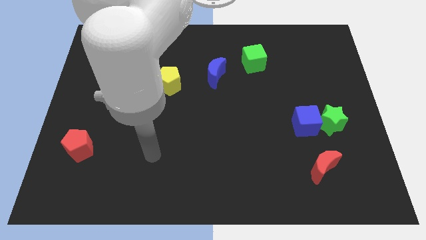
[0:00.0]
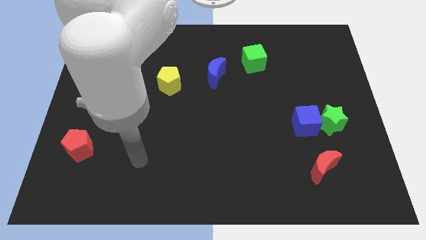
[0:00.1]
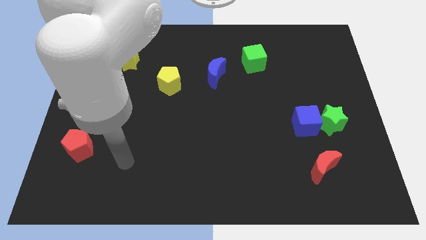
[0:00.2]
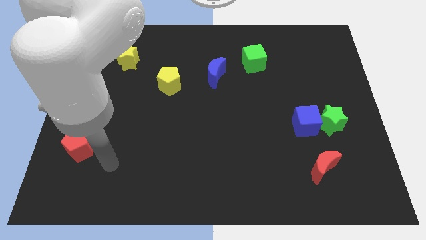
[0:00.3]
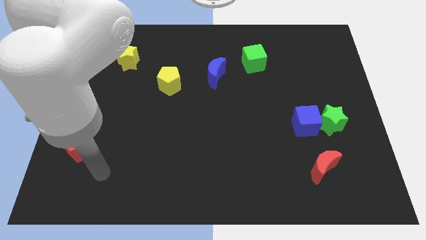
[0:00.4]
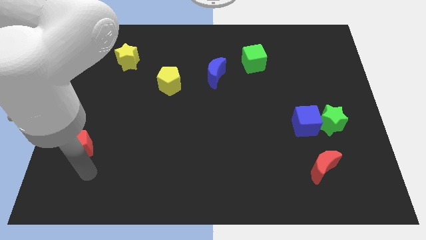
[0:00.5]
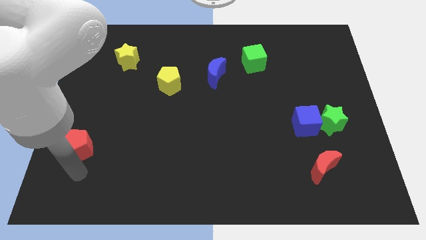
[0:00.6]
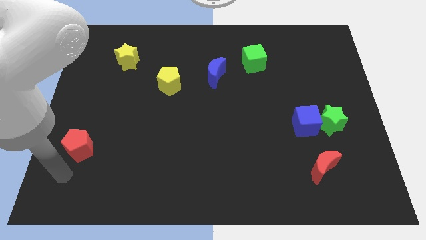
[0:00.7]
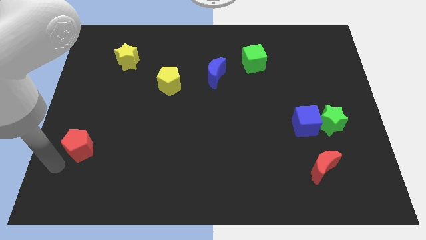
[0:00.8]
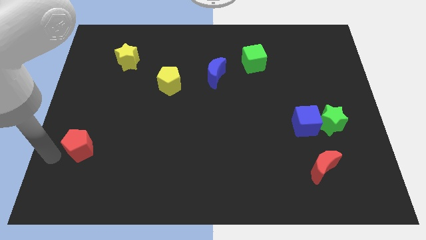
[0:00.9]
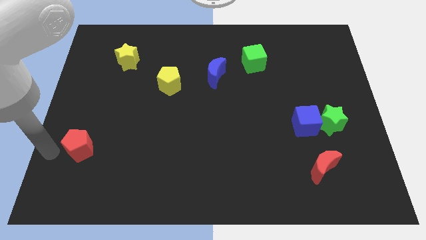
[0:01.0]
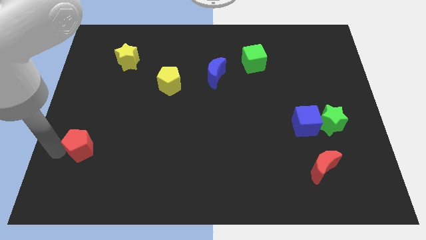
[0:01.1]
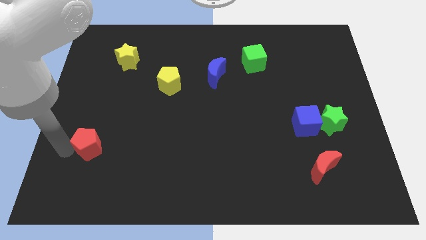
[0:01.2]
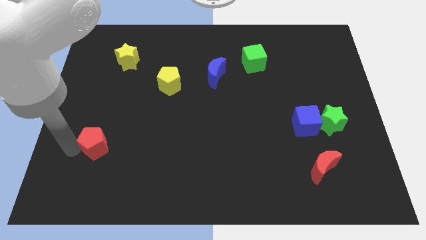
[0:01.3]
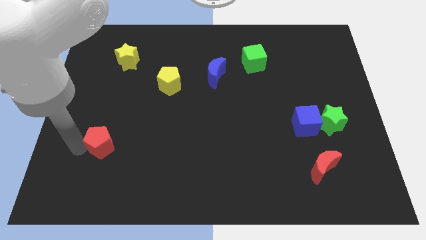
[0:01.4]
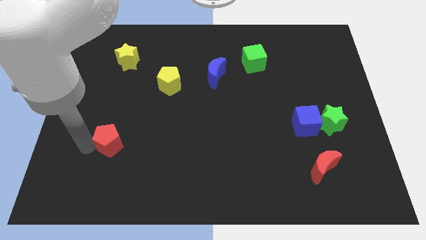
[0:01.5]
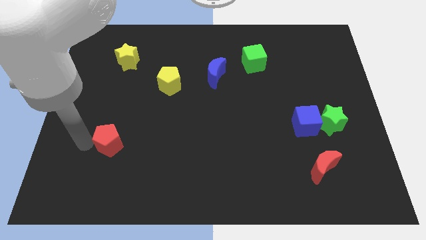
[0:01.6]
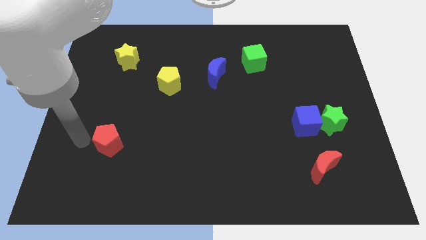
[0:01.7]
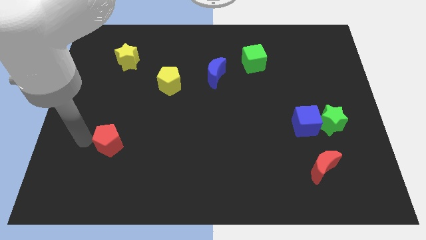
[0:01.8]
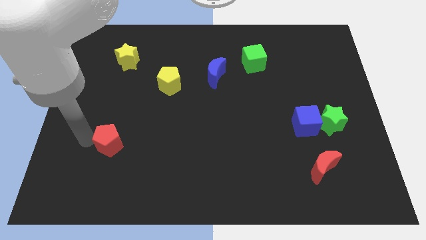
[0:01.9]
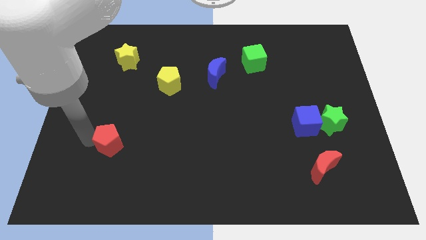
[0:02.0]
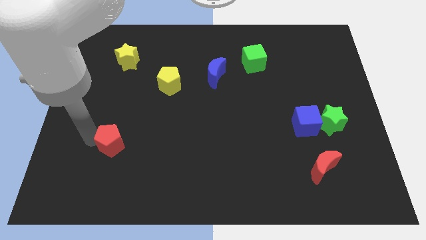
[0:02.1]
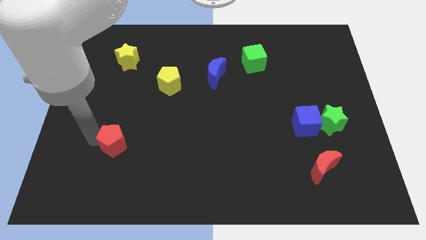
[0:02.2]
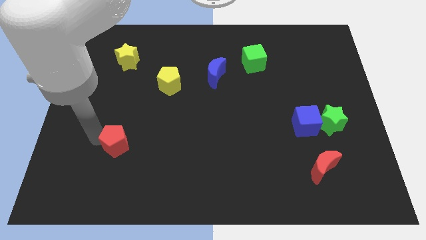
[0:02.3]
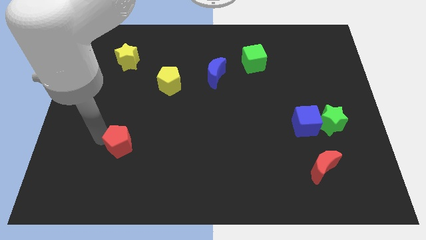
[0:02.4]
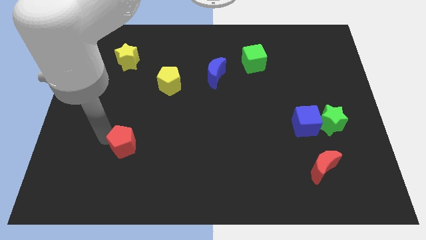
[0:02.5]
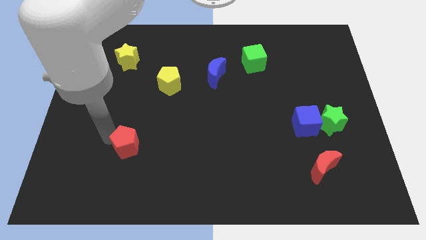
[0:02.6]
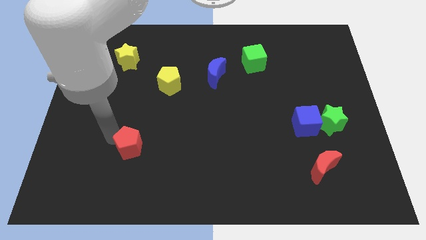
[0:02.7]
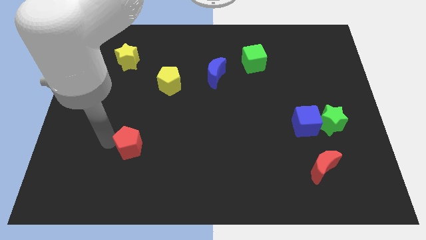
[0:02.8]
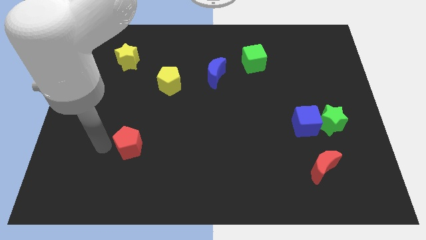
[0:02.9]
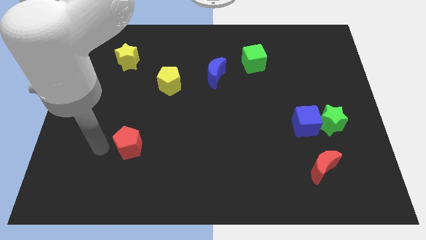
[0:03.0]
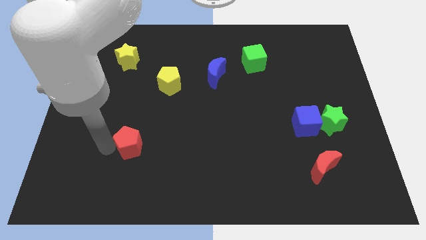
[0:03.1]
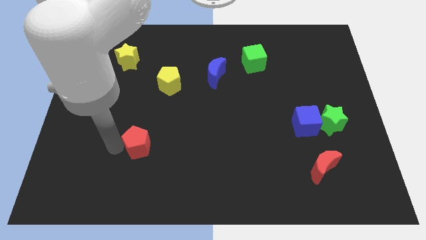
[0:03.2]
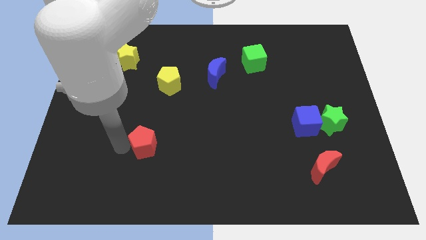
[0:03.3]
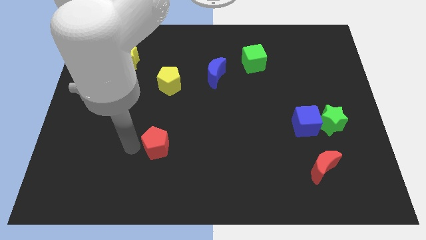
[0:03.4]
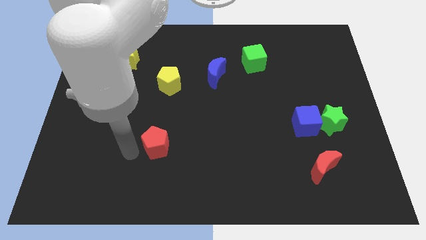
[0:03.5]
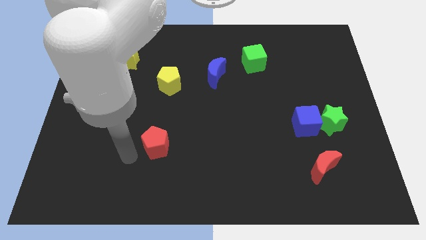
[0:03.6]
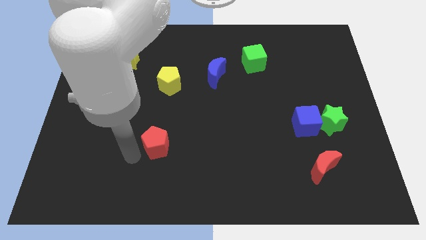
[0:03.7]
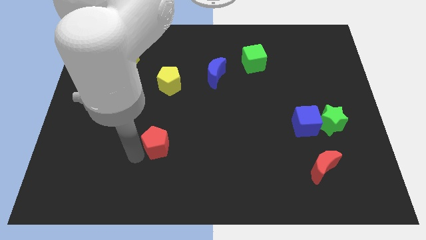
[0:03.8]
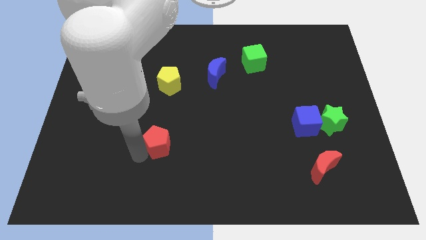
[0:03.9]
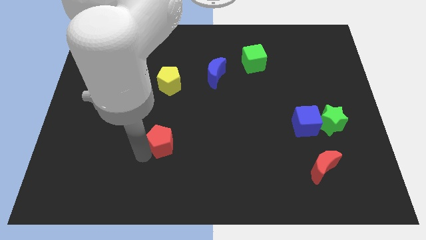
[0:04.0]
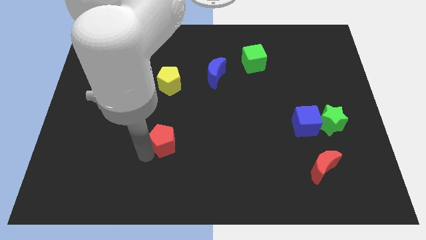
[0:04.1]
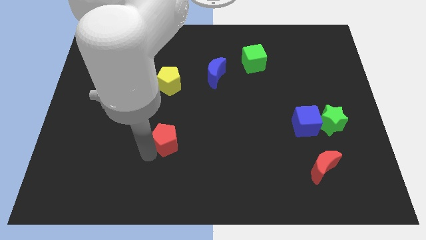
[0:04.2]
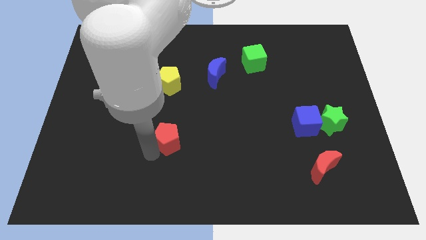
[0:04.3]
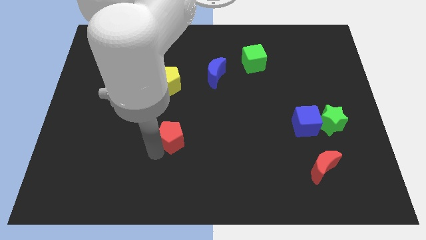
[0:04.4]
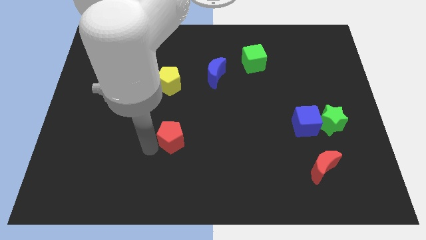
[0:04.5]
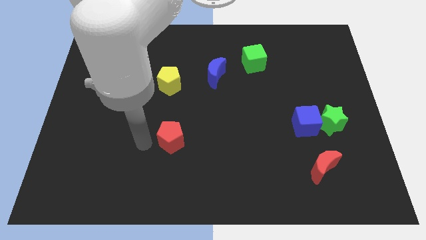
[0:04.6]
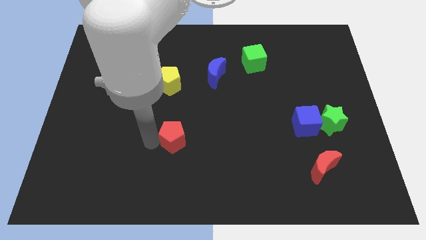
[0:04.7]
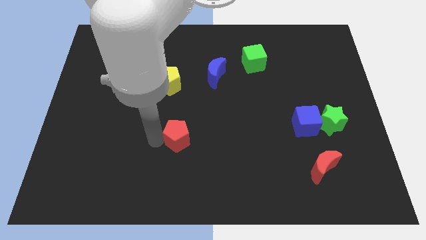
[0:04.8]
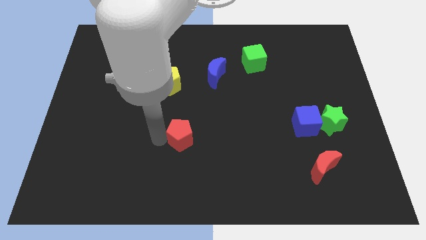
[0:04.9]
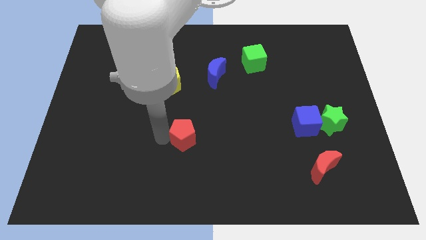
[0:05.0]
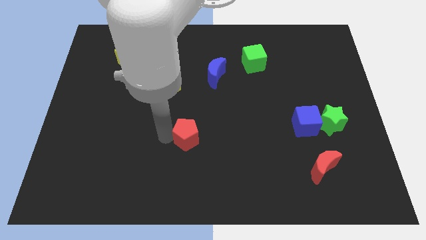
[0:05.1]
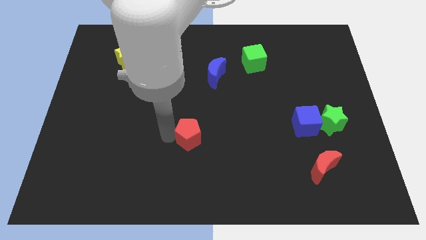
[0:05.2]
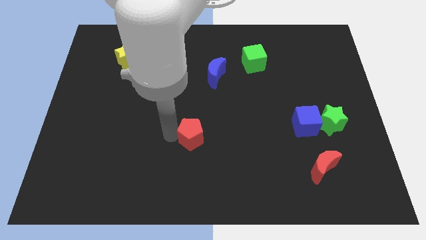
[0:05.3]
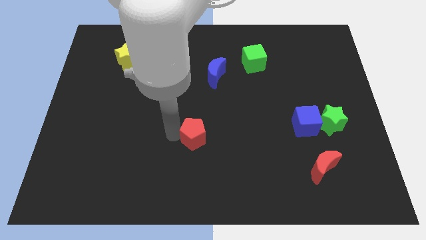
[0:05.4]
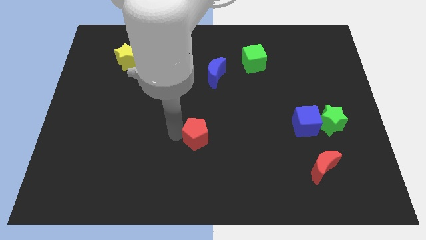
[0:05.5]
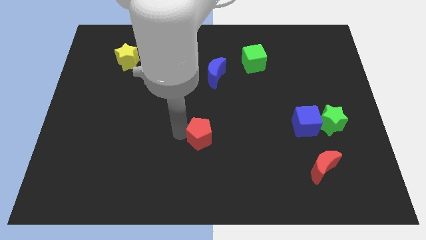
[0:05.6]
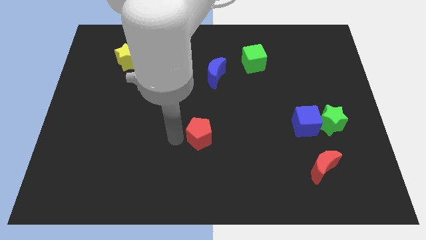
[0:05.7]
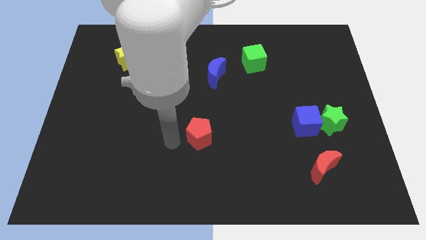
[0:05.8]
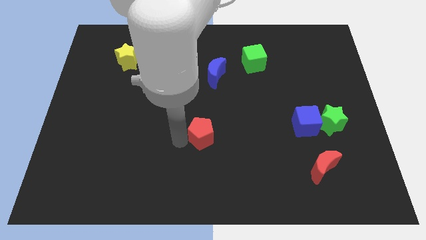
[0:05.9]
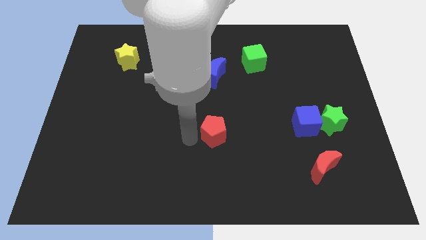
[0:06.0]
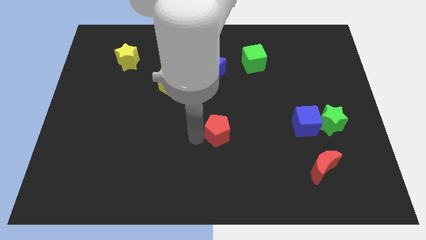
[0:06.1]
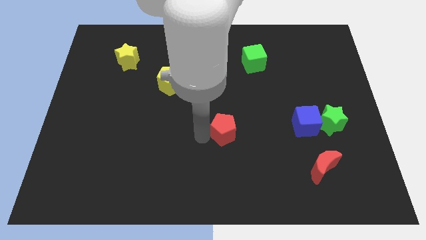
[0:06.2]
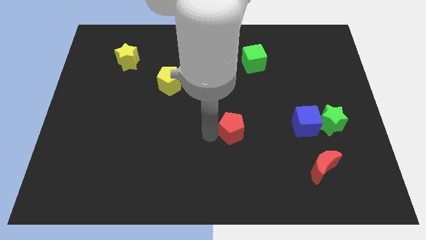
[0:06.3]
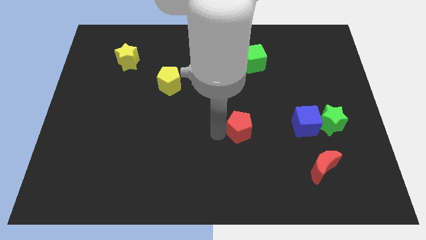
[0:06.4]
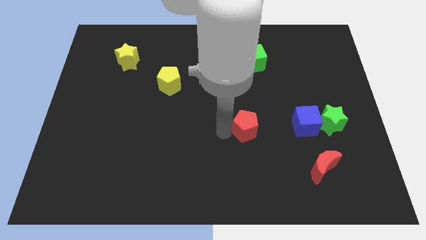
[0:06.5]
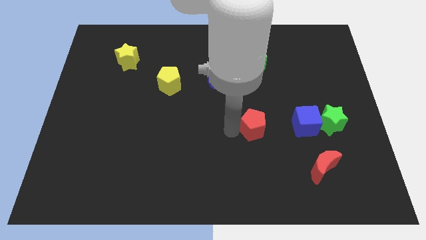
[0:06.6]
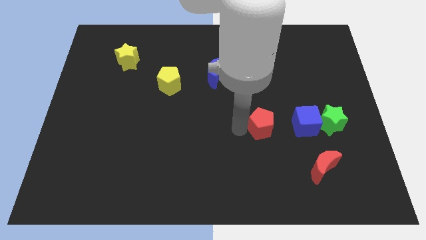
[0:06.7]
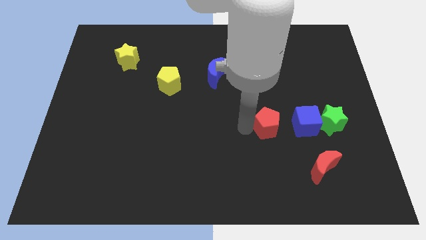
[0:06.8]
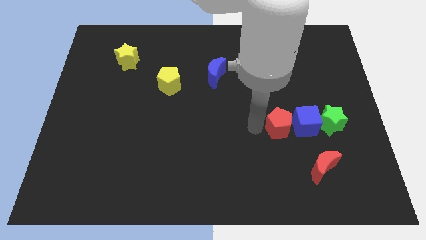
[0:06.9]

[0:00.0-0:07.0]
move the red pentagon to the blue cube
